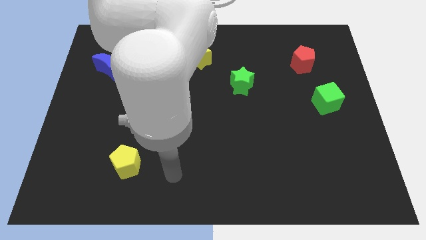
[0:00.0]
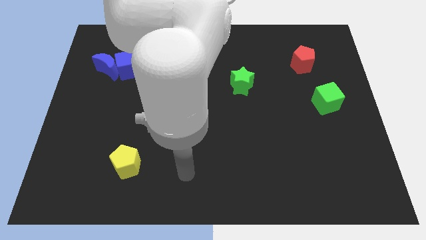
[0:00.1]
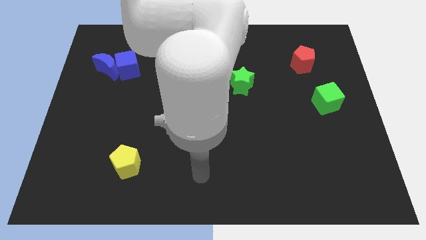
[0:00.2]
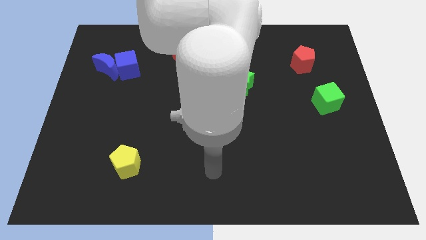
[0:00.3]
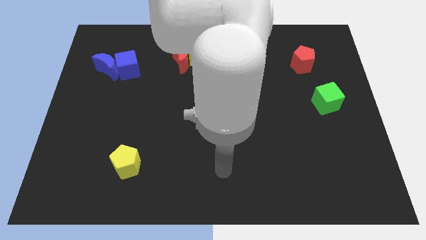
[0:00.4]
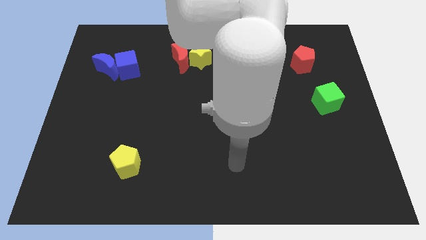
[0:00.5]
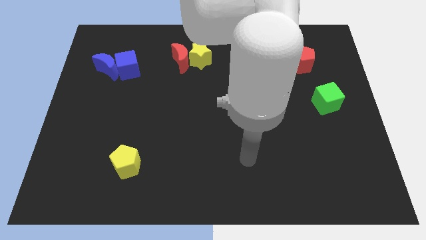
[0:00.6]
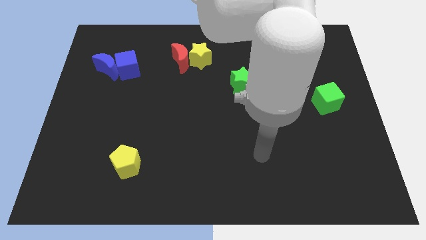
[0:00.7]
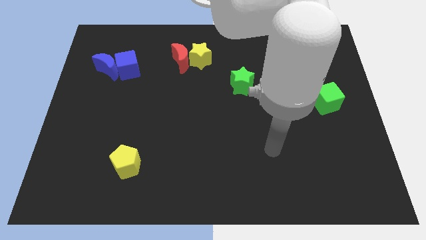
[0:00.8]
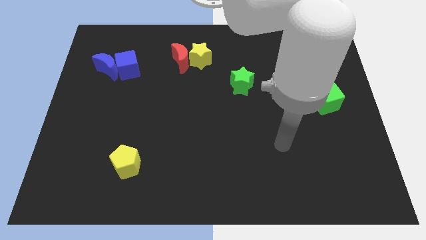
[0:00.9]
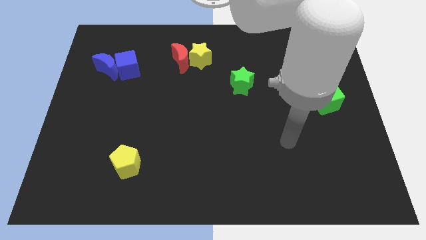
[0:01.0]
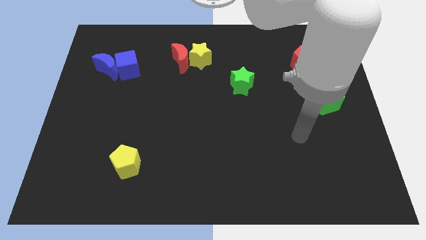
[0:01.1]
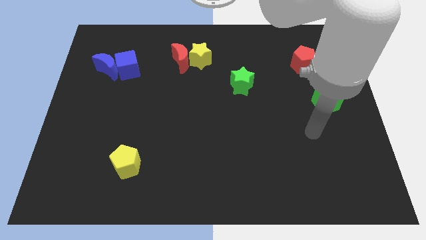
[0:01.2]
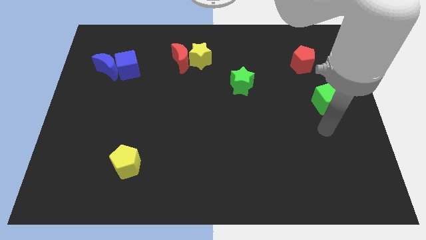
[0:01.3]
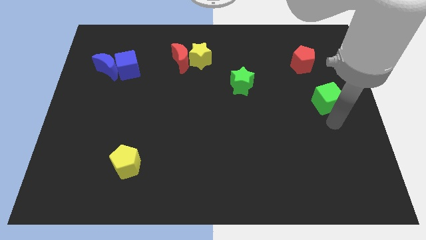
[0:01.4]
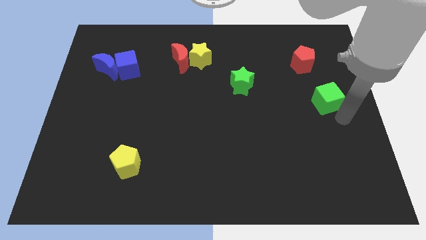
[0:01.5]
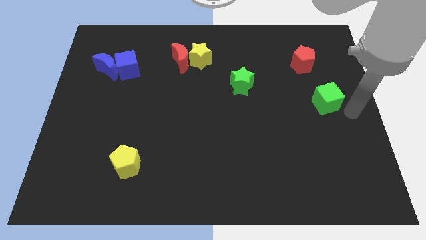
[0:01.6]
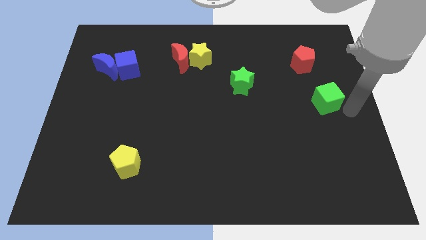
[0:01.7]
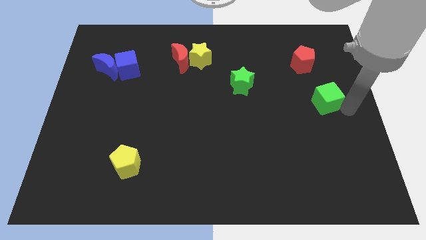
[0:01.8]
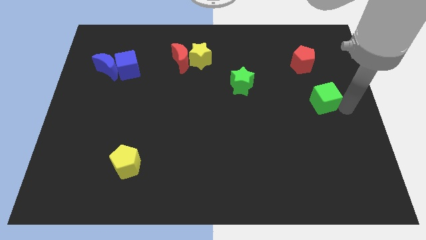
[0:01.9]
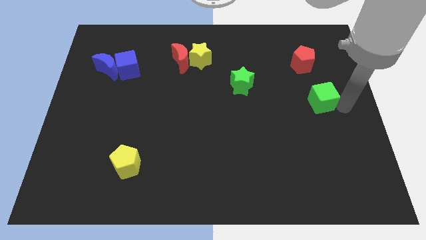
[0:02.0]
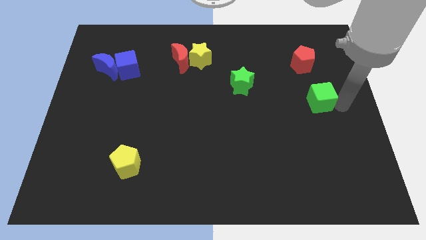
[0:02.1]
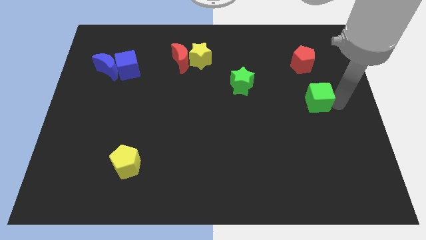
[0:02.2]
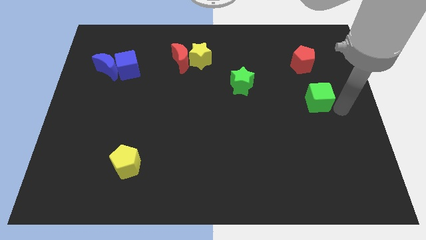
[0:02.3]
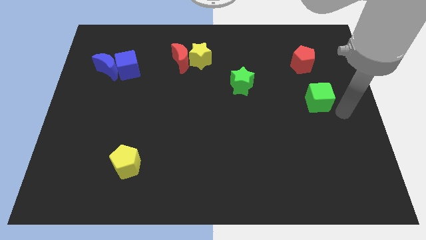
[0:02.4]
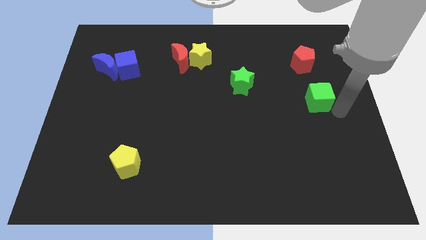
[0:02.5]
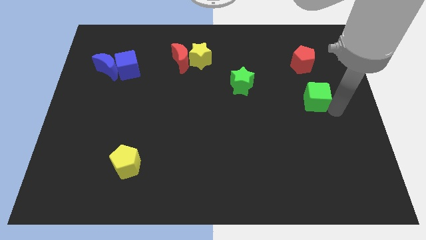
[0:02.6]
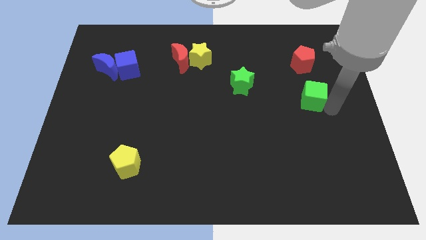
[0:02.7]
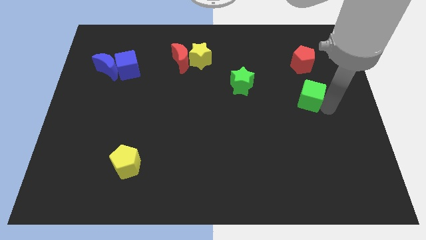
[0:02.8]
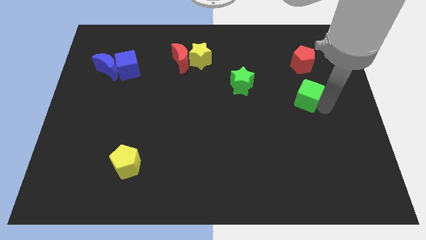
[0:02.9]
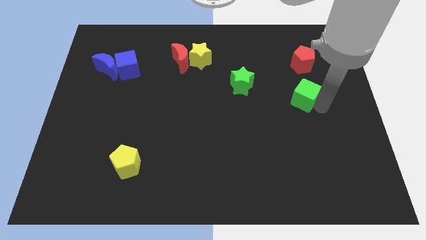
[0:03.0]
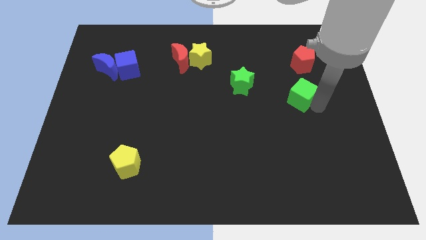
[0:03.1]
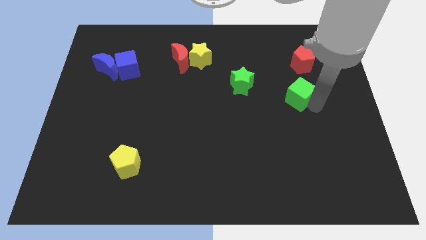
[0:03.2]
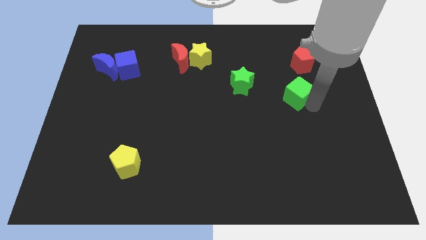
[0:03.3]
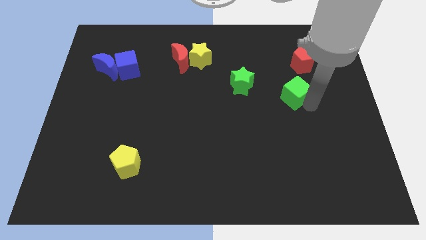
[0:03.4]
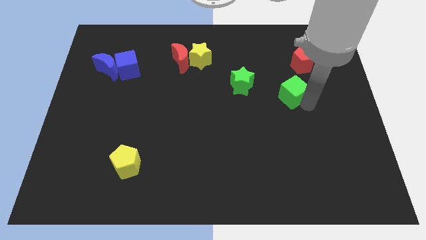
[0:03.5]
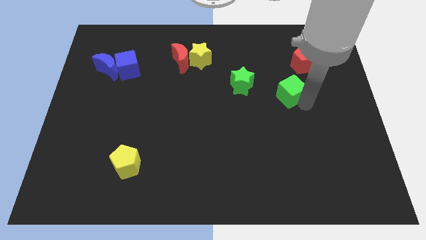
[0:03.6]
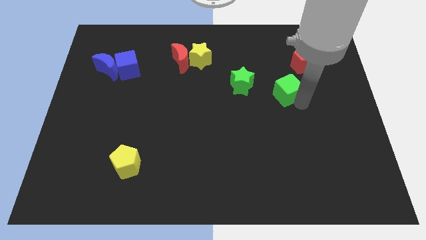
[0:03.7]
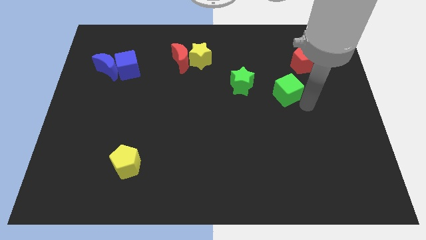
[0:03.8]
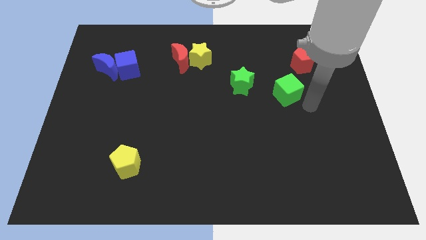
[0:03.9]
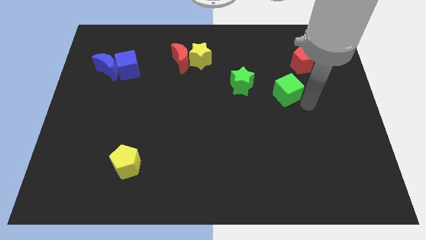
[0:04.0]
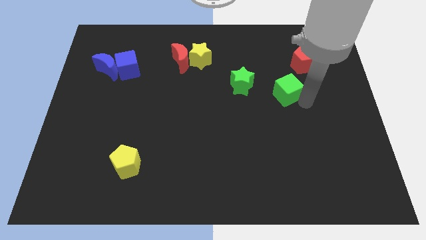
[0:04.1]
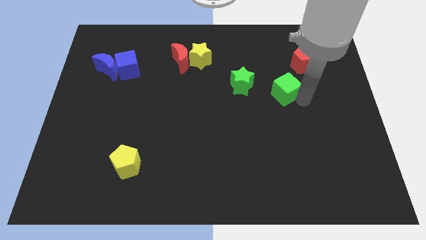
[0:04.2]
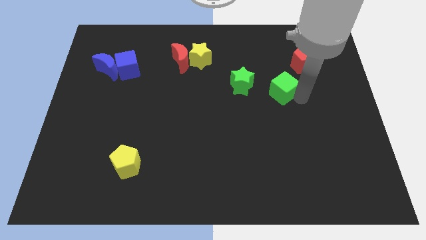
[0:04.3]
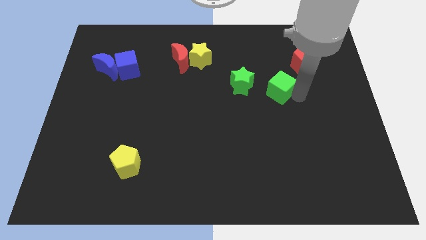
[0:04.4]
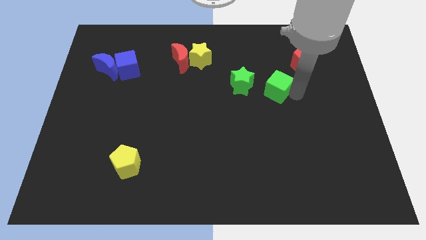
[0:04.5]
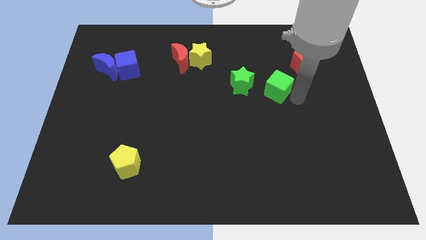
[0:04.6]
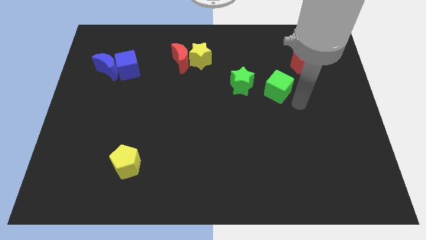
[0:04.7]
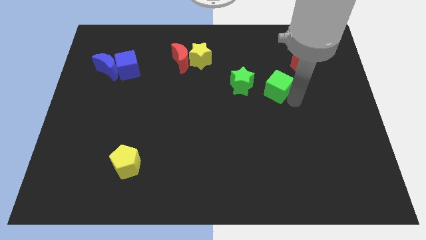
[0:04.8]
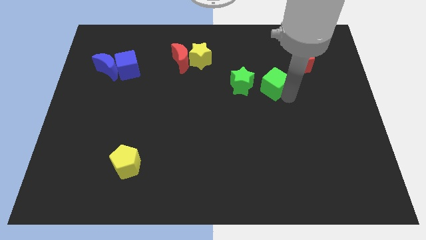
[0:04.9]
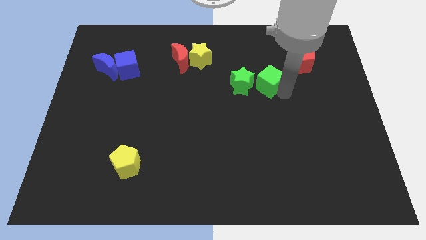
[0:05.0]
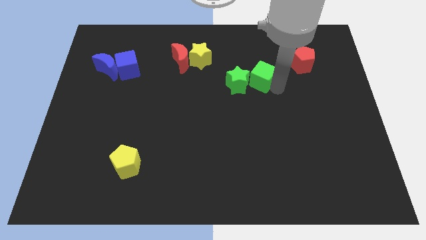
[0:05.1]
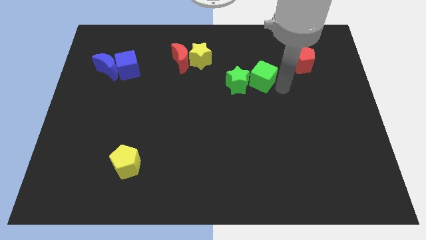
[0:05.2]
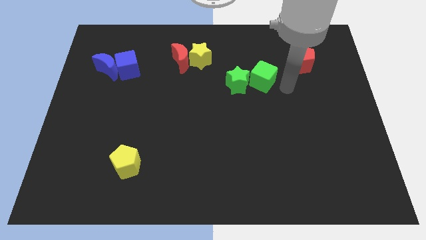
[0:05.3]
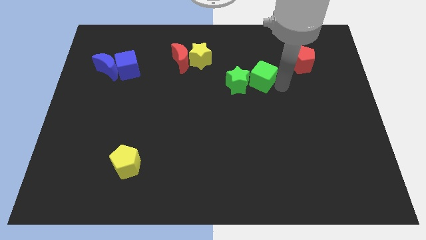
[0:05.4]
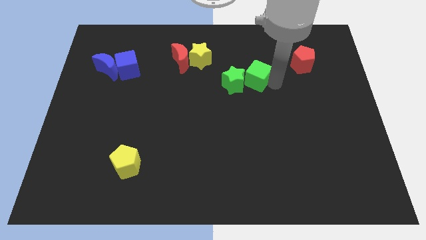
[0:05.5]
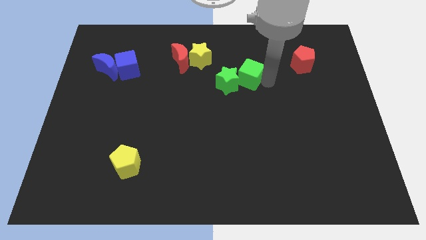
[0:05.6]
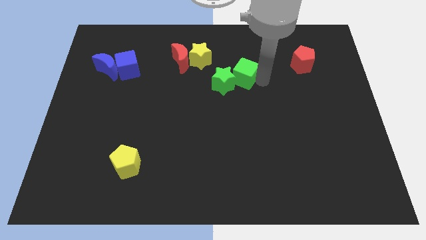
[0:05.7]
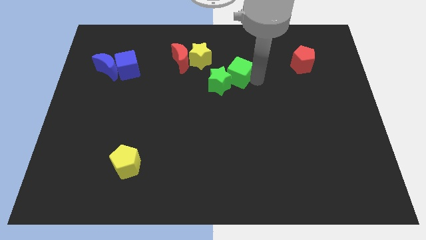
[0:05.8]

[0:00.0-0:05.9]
slide the green cube diagonally down and to the right of the yellow star

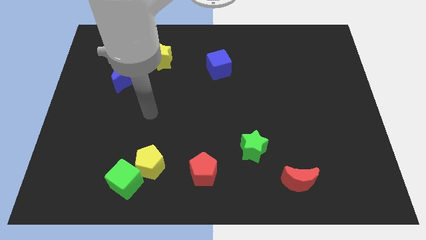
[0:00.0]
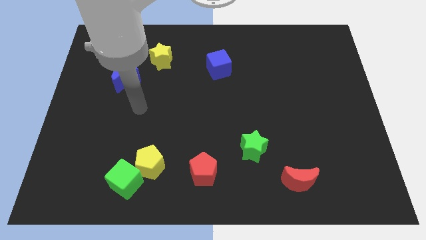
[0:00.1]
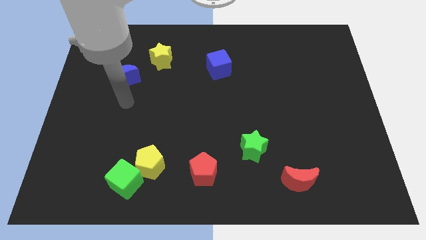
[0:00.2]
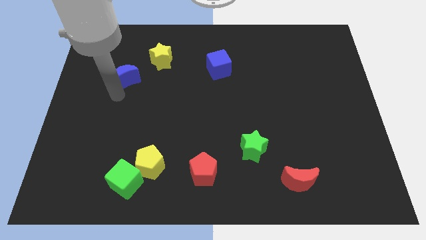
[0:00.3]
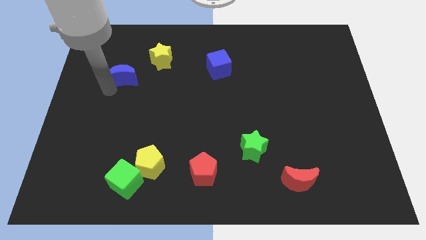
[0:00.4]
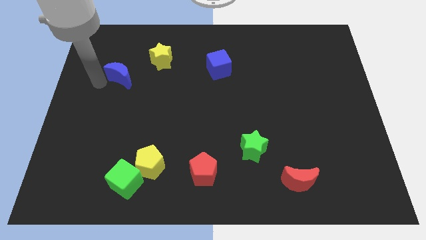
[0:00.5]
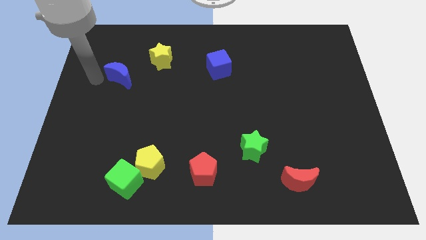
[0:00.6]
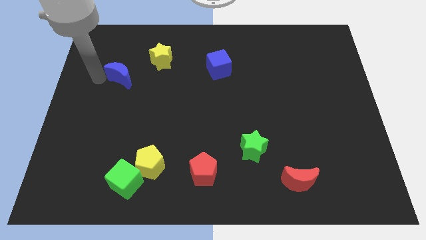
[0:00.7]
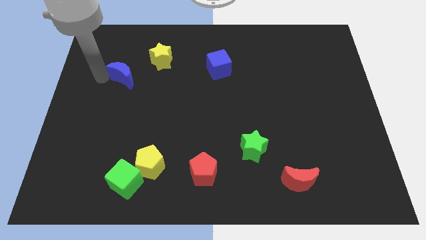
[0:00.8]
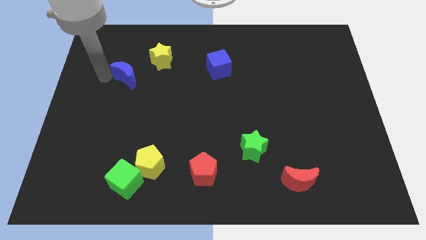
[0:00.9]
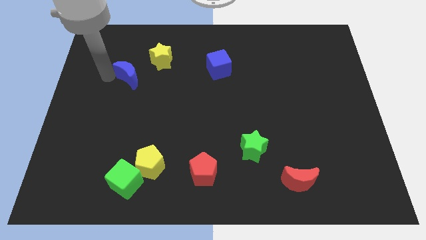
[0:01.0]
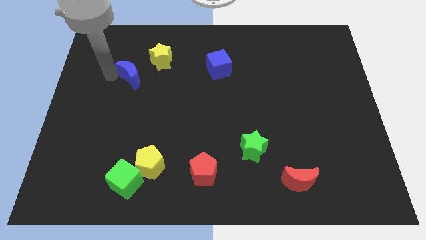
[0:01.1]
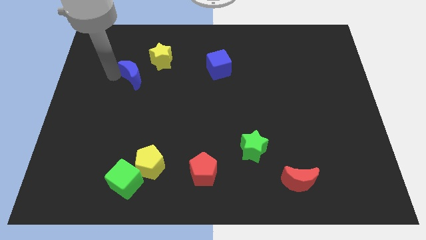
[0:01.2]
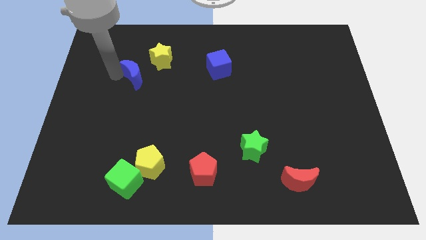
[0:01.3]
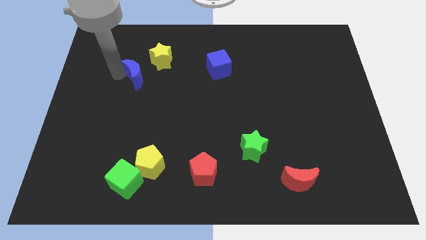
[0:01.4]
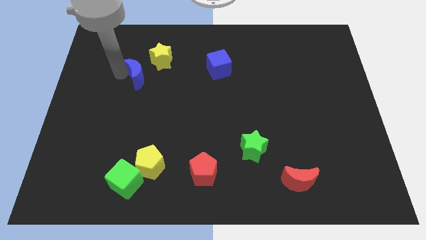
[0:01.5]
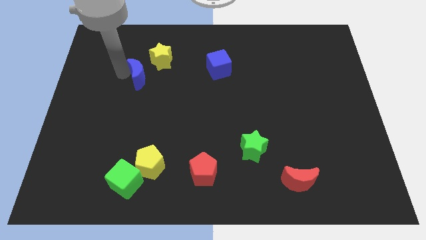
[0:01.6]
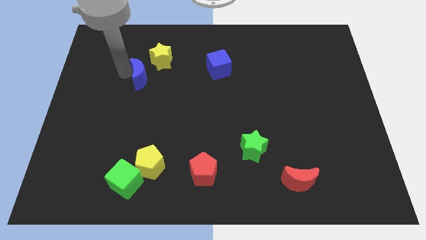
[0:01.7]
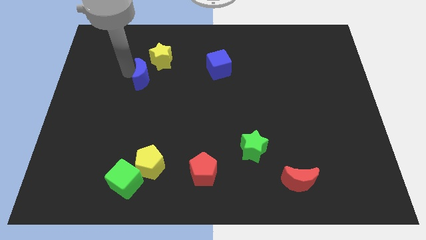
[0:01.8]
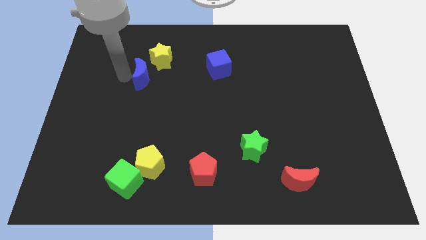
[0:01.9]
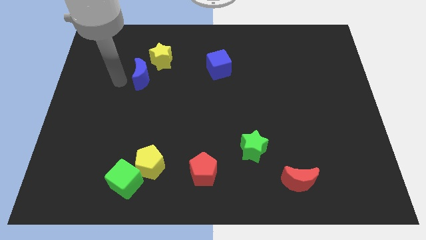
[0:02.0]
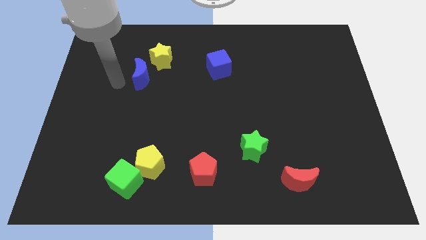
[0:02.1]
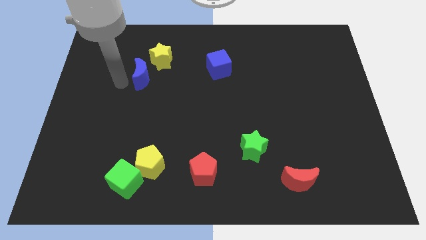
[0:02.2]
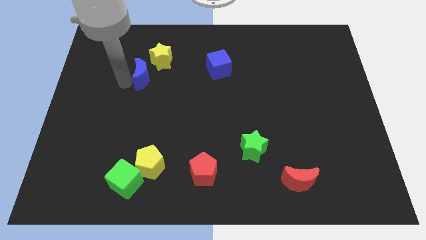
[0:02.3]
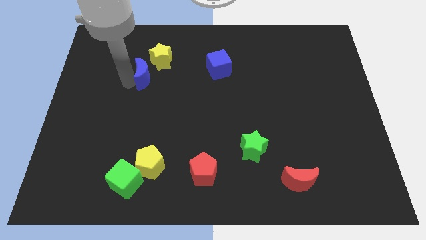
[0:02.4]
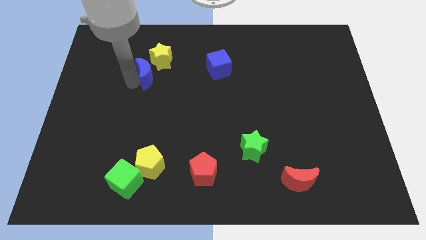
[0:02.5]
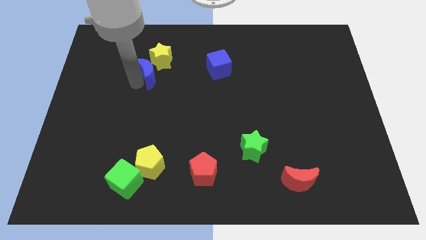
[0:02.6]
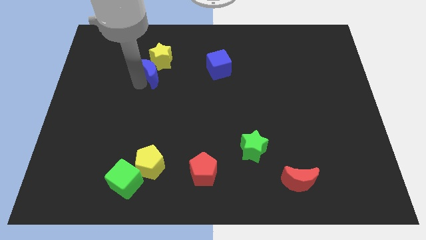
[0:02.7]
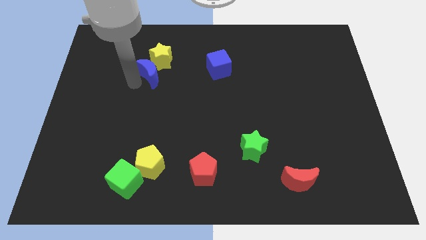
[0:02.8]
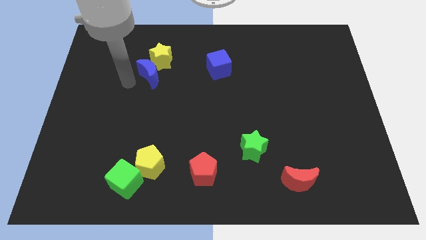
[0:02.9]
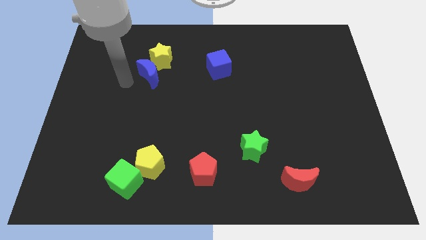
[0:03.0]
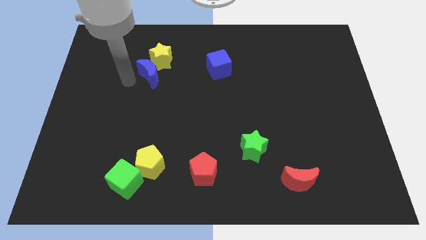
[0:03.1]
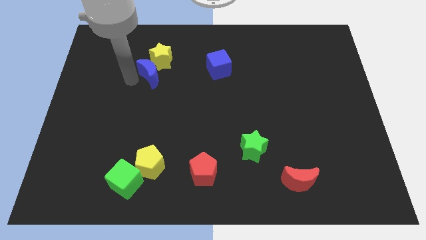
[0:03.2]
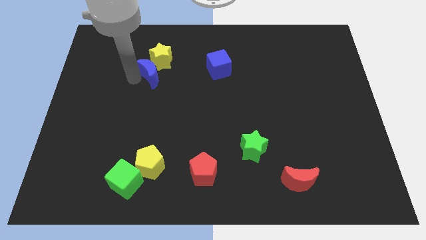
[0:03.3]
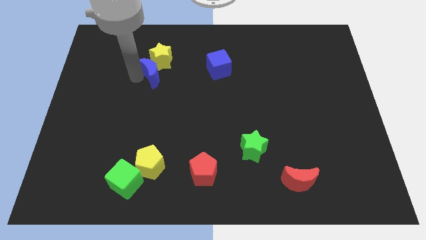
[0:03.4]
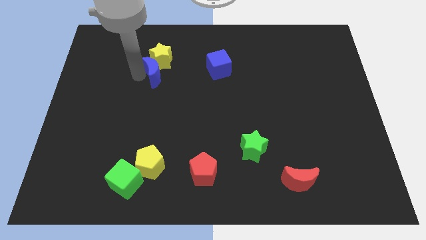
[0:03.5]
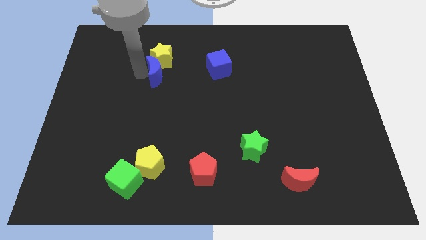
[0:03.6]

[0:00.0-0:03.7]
push the blue moon to the left of the blue cube
